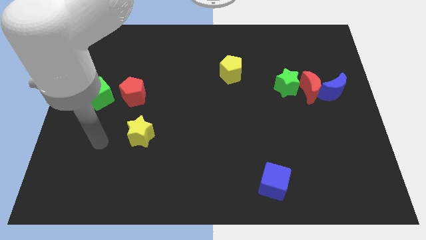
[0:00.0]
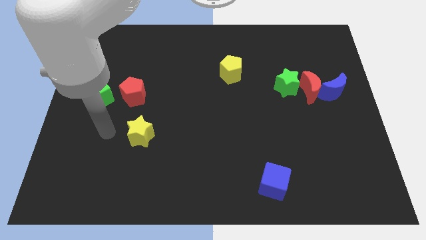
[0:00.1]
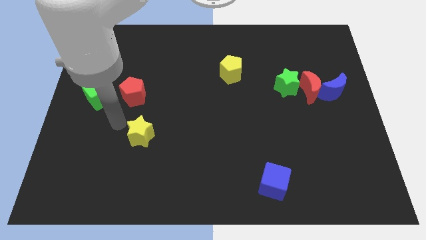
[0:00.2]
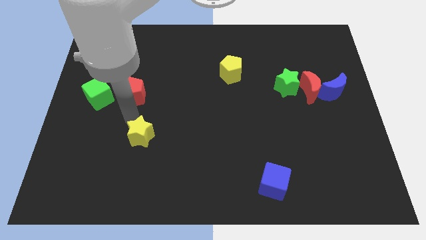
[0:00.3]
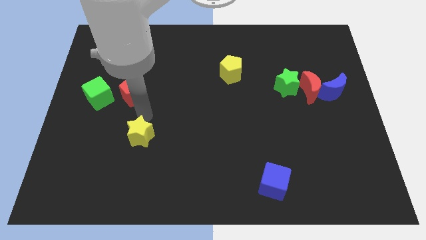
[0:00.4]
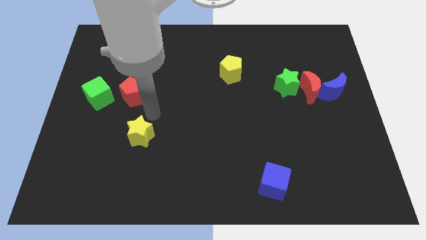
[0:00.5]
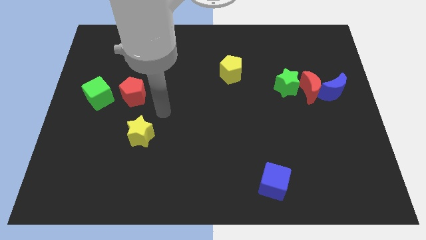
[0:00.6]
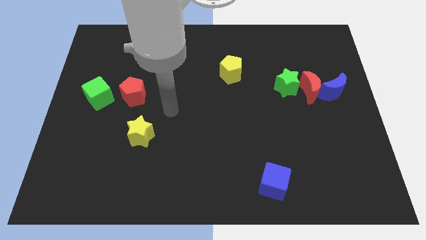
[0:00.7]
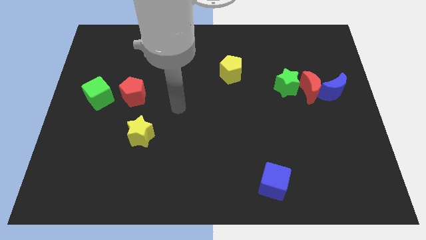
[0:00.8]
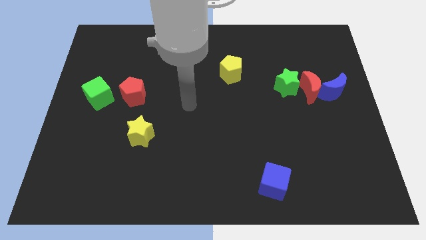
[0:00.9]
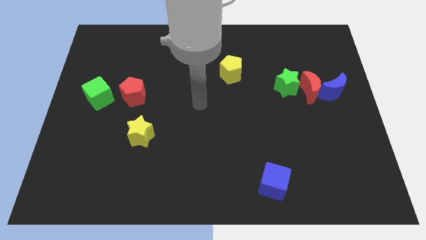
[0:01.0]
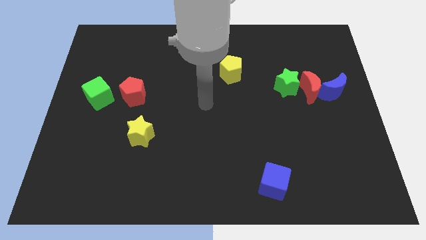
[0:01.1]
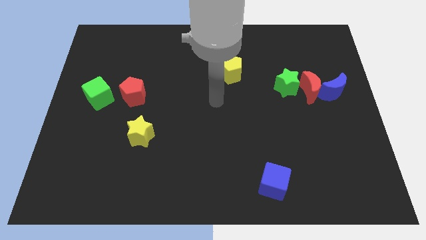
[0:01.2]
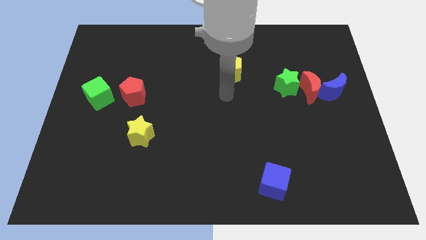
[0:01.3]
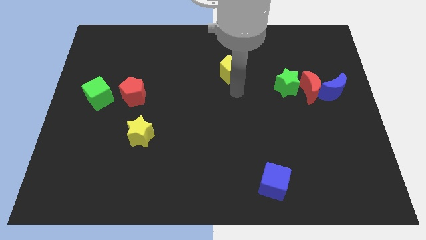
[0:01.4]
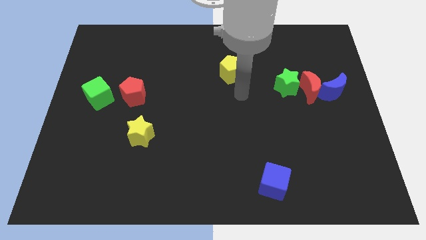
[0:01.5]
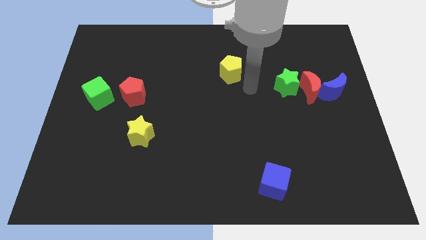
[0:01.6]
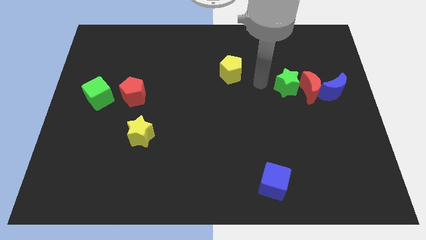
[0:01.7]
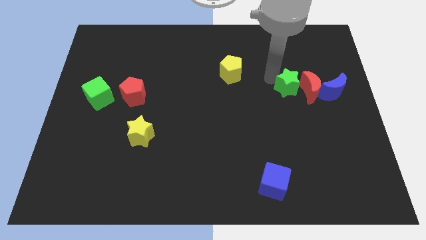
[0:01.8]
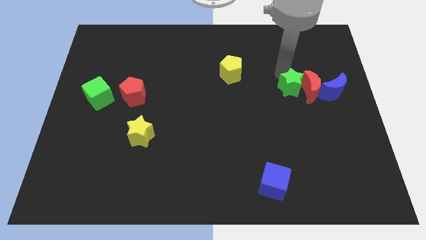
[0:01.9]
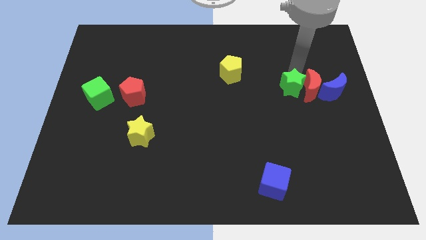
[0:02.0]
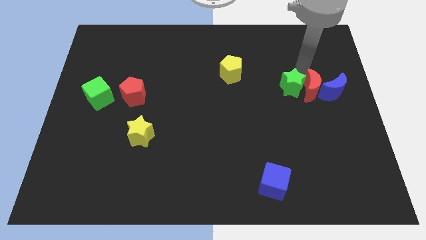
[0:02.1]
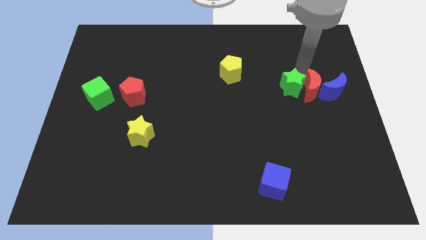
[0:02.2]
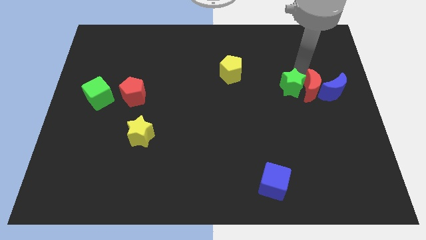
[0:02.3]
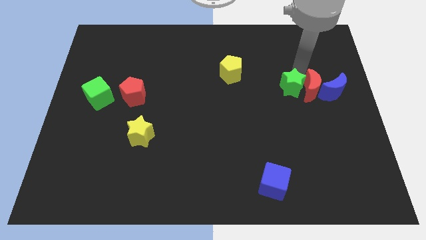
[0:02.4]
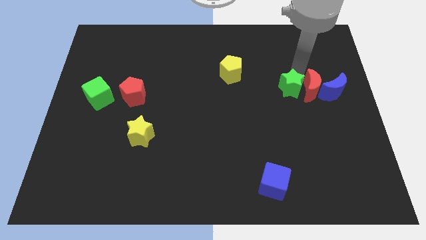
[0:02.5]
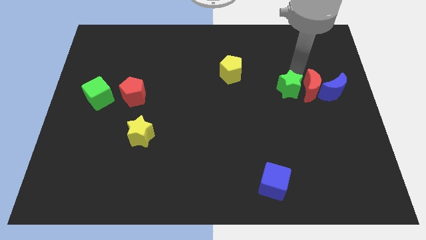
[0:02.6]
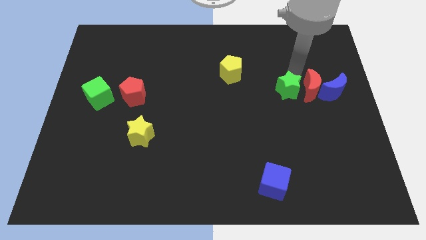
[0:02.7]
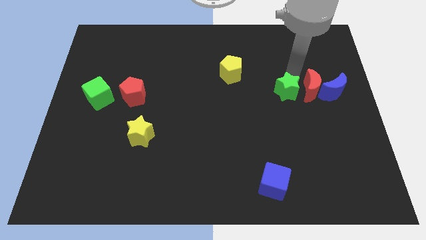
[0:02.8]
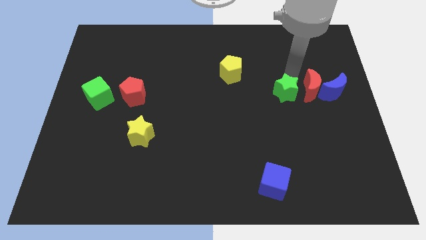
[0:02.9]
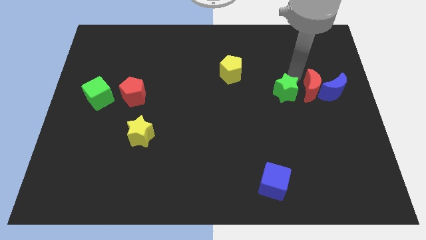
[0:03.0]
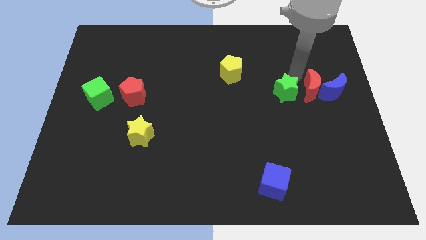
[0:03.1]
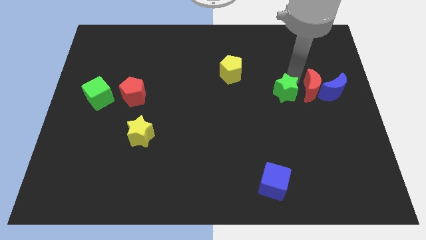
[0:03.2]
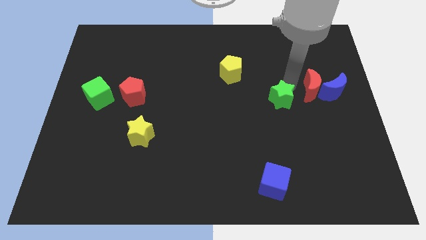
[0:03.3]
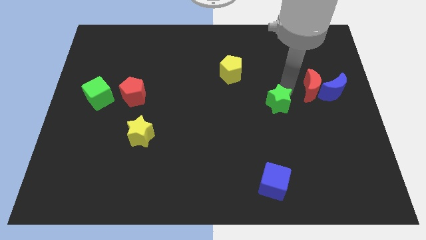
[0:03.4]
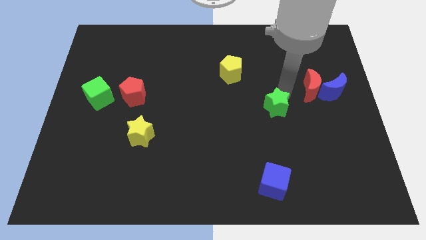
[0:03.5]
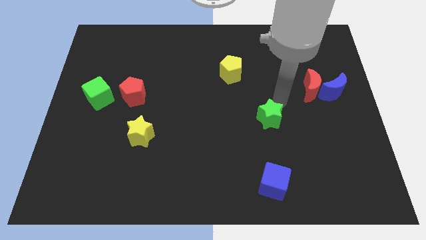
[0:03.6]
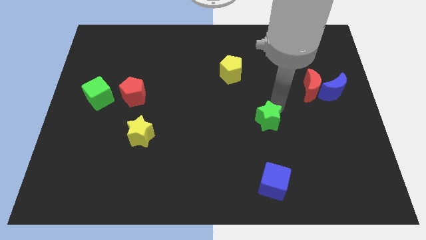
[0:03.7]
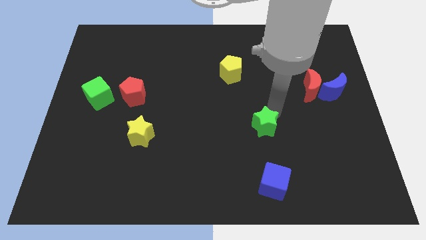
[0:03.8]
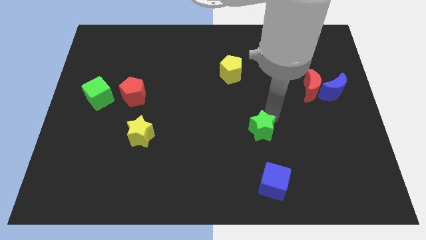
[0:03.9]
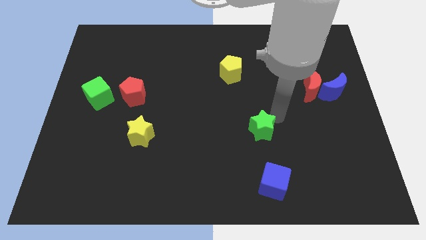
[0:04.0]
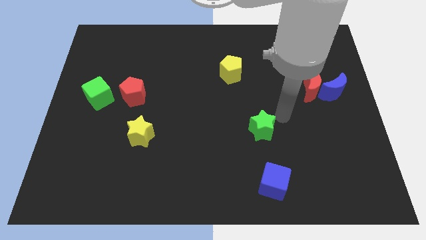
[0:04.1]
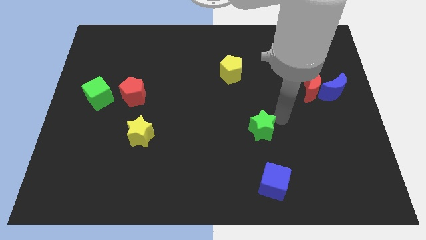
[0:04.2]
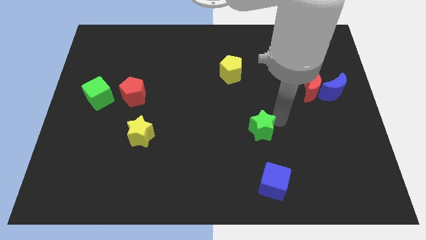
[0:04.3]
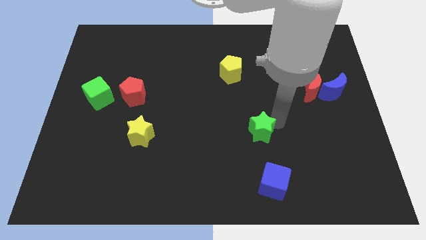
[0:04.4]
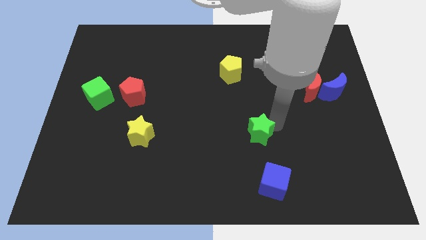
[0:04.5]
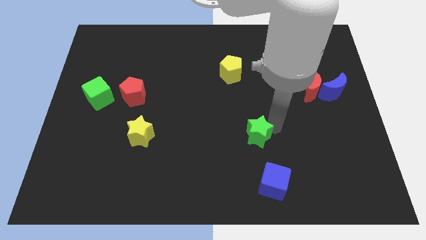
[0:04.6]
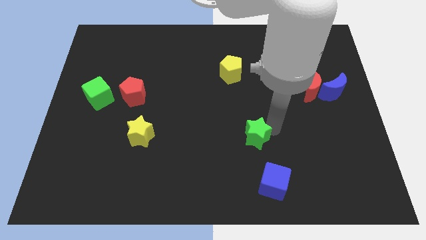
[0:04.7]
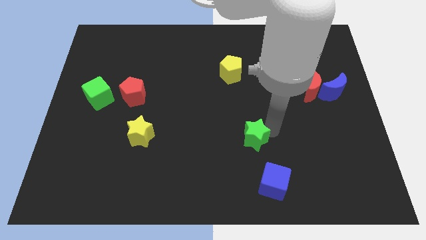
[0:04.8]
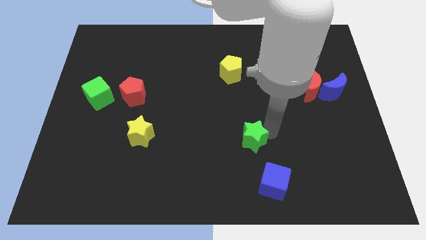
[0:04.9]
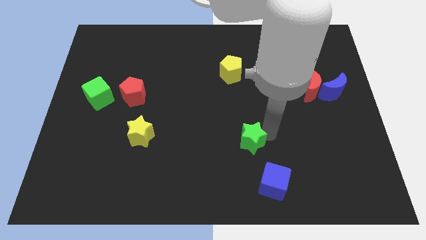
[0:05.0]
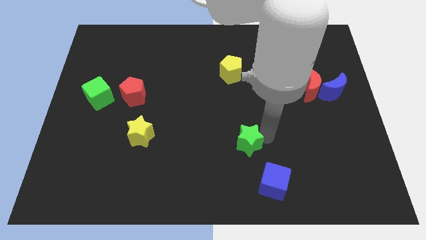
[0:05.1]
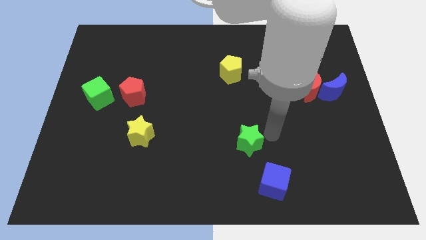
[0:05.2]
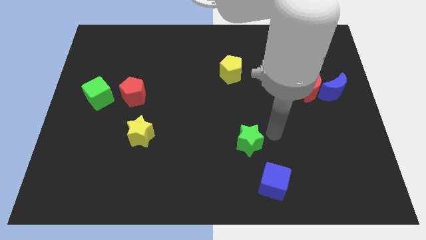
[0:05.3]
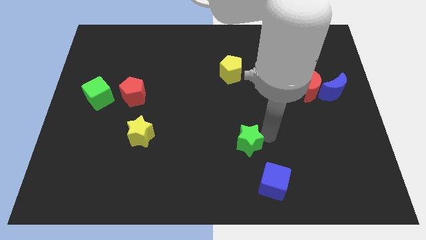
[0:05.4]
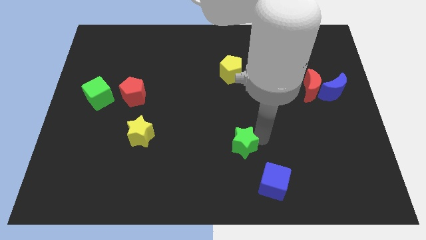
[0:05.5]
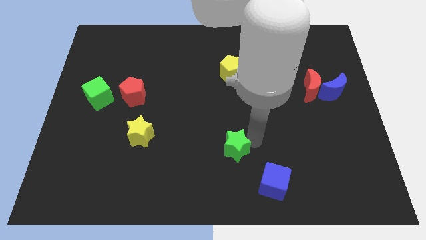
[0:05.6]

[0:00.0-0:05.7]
slide the green star diagonally downwards and left

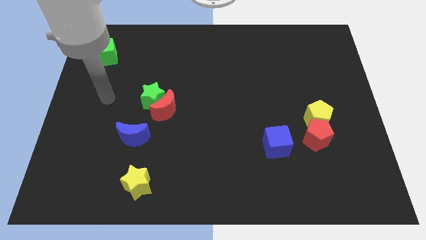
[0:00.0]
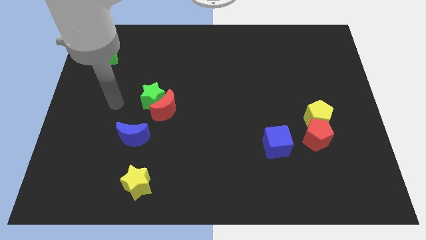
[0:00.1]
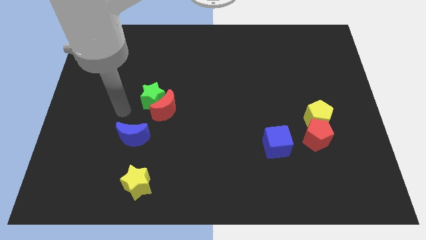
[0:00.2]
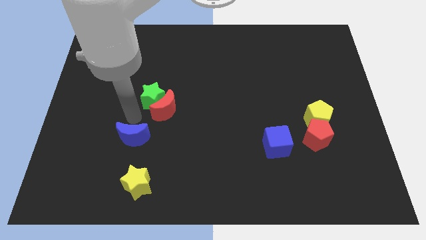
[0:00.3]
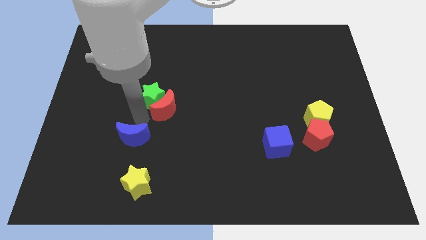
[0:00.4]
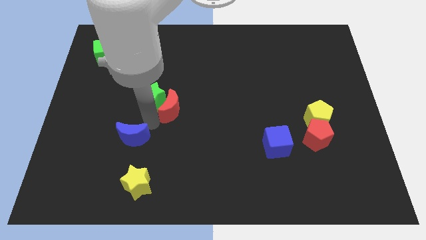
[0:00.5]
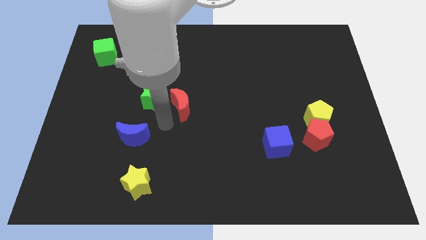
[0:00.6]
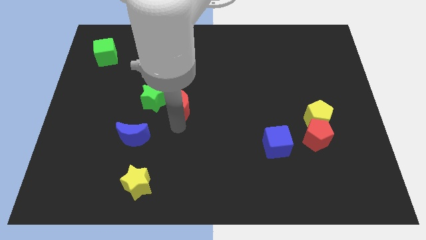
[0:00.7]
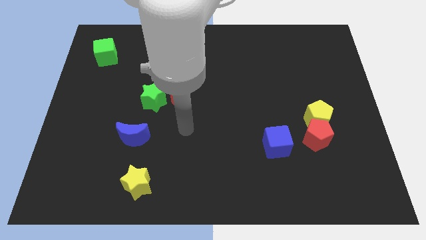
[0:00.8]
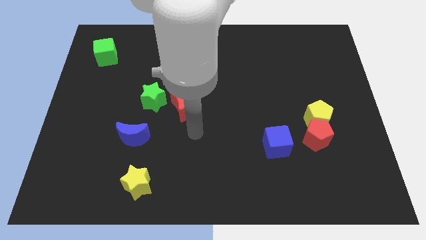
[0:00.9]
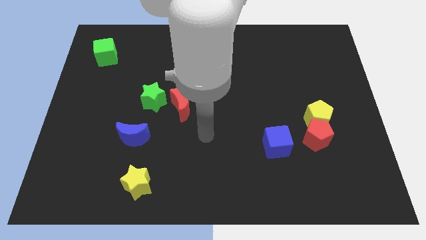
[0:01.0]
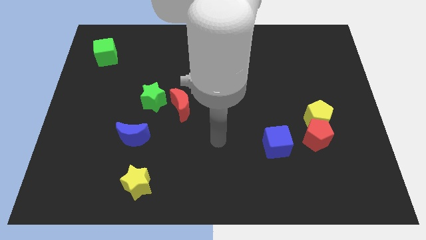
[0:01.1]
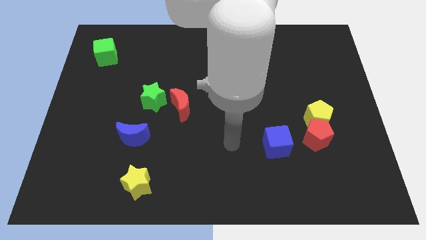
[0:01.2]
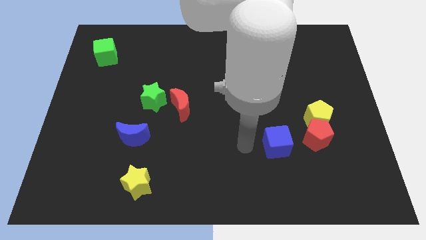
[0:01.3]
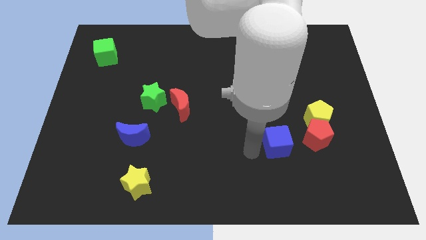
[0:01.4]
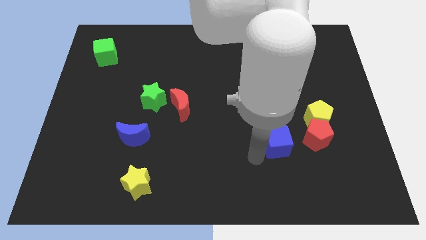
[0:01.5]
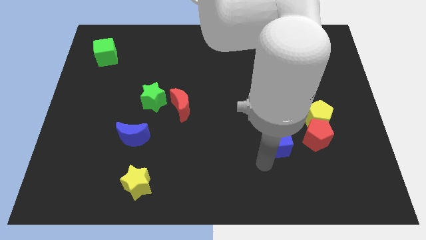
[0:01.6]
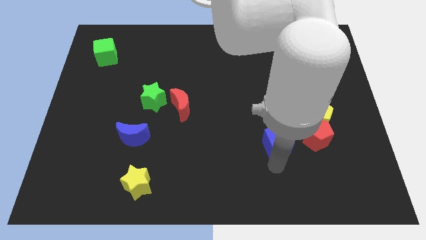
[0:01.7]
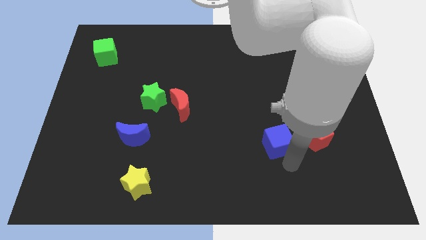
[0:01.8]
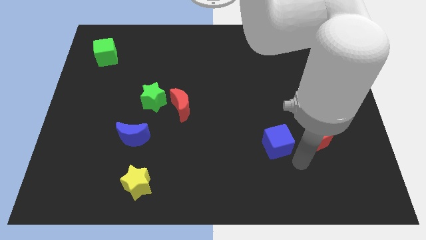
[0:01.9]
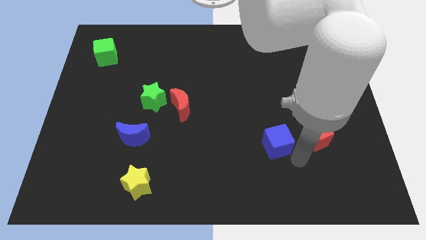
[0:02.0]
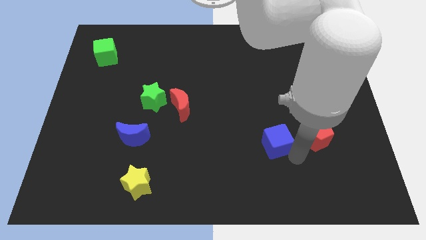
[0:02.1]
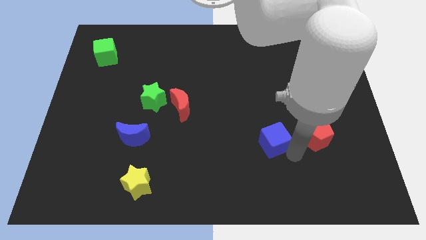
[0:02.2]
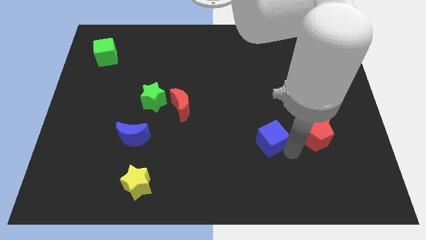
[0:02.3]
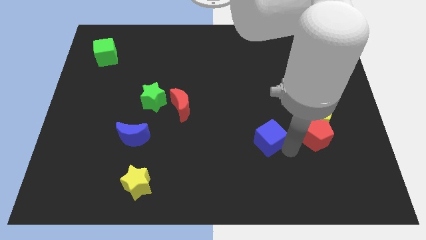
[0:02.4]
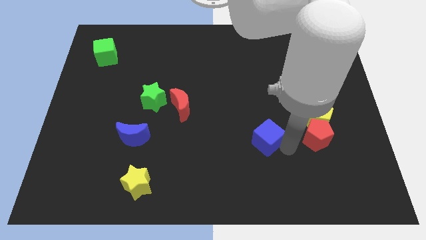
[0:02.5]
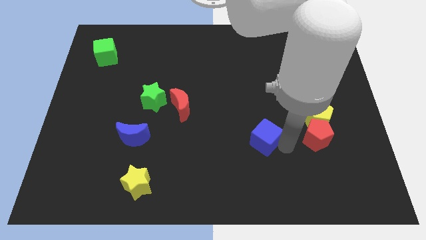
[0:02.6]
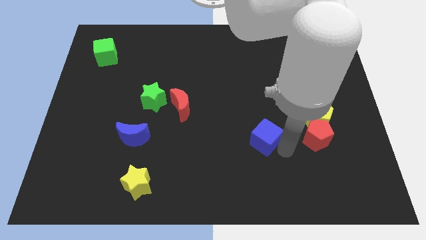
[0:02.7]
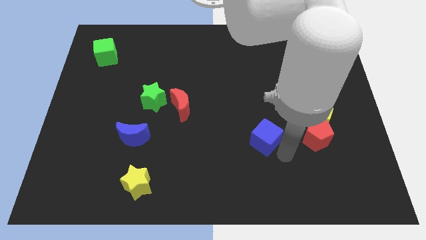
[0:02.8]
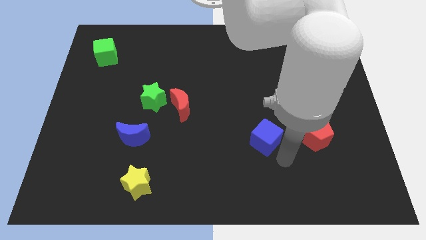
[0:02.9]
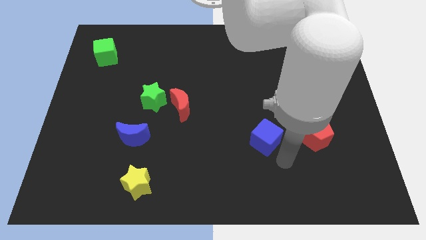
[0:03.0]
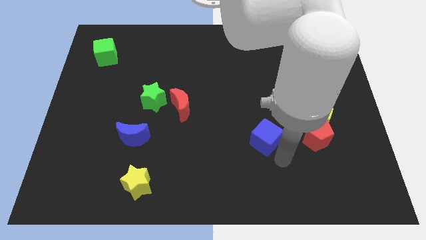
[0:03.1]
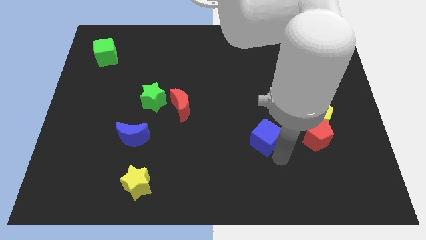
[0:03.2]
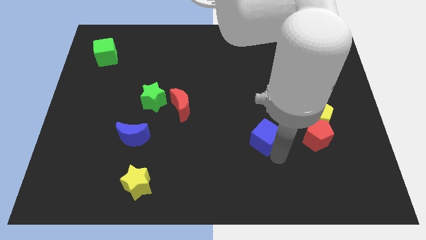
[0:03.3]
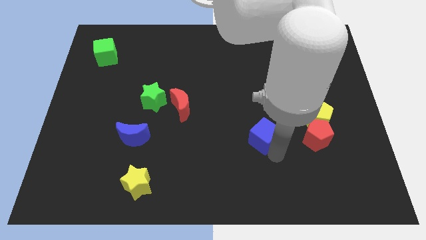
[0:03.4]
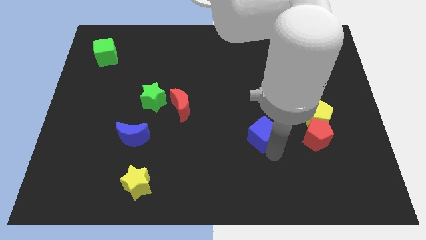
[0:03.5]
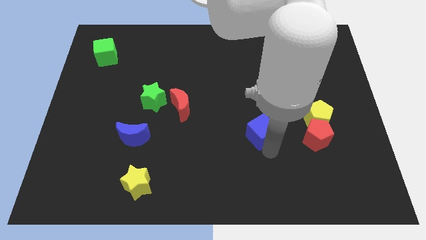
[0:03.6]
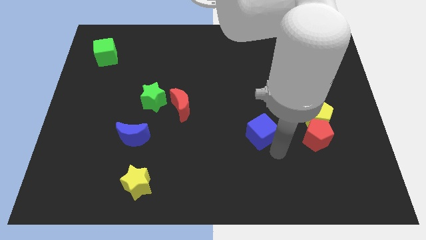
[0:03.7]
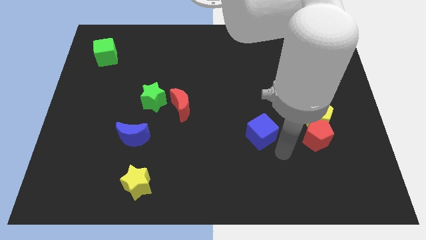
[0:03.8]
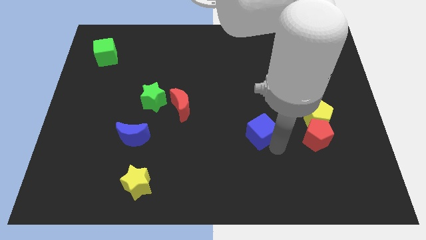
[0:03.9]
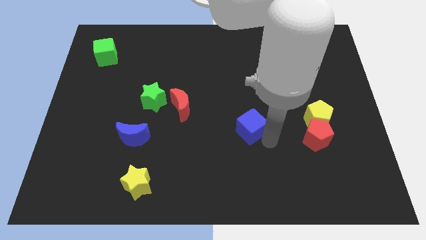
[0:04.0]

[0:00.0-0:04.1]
slide the blue cube up and left diagonally a little
